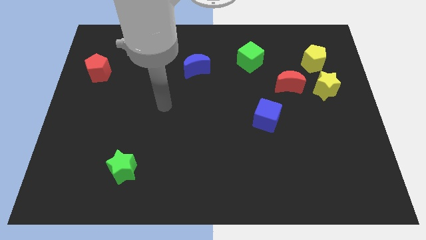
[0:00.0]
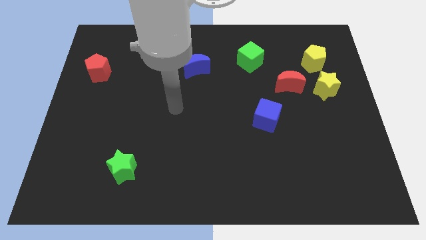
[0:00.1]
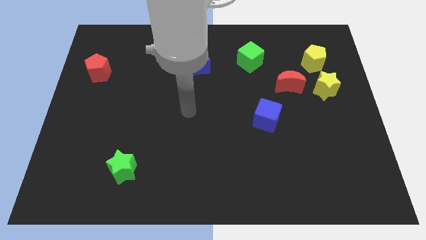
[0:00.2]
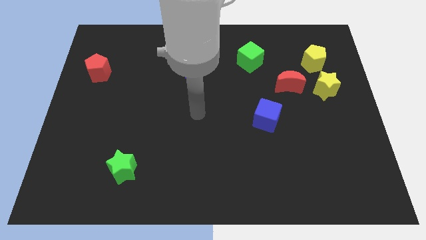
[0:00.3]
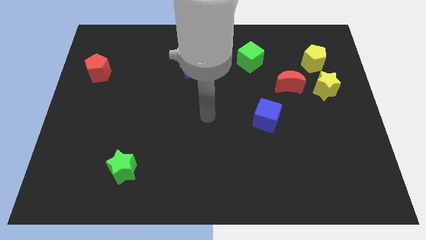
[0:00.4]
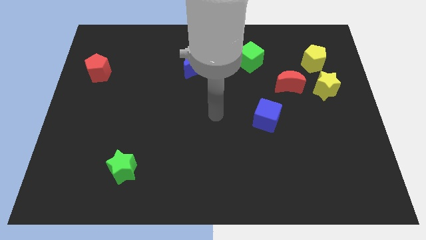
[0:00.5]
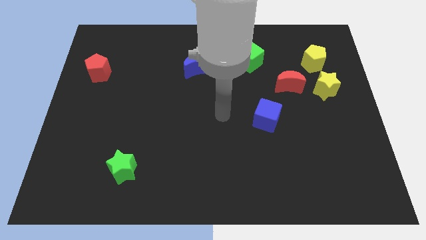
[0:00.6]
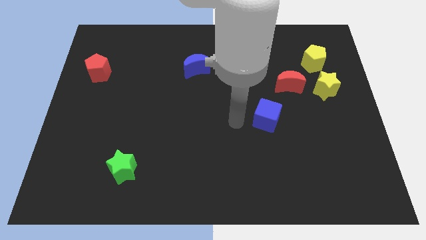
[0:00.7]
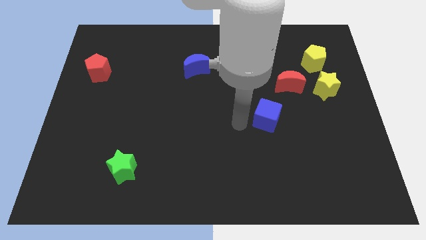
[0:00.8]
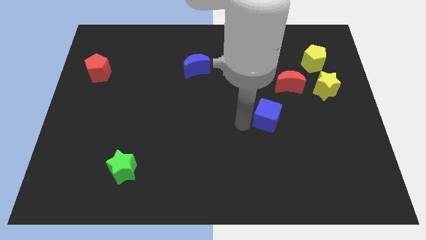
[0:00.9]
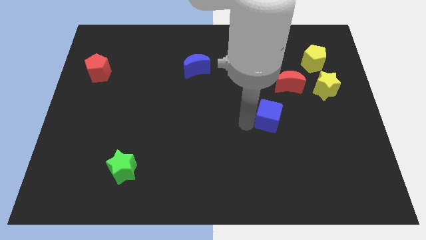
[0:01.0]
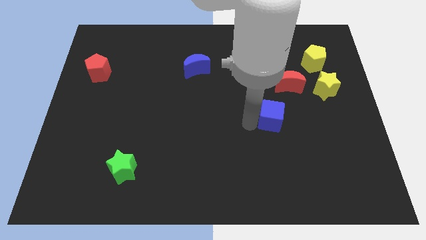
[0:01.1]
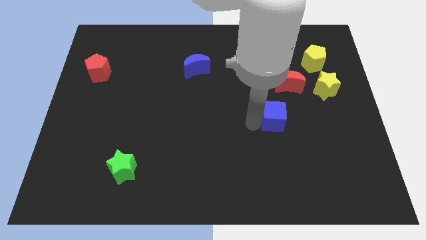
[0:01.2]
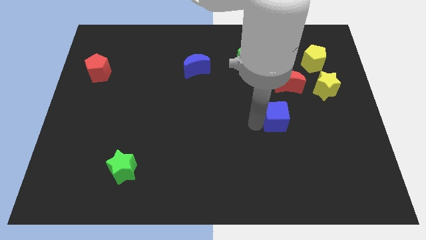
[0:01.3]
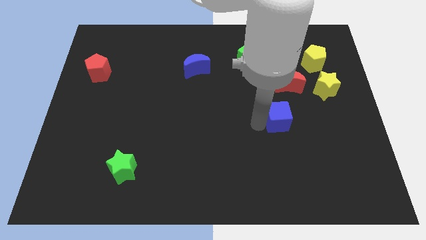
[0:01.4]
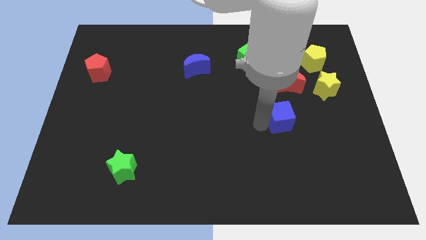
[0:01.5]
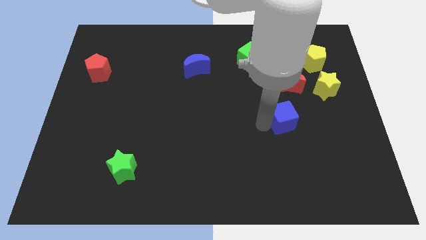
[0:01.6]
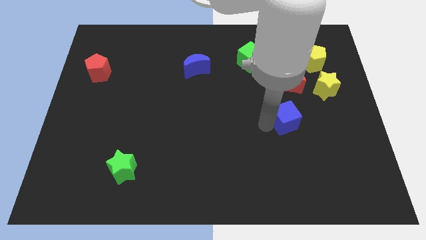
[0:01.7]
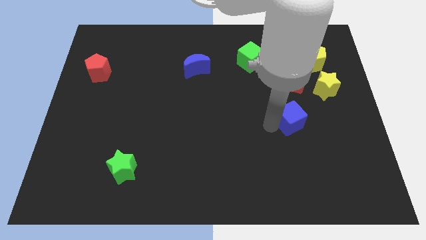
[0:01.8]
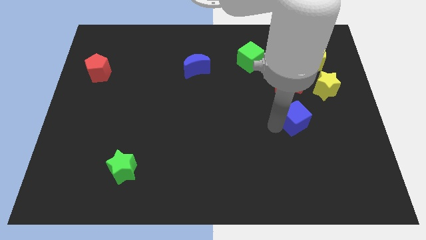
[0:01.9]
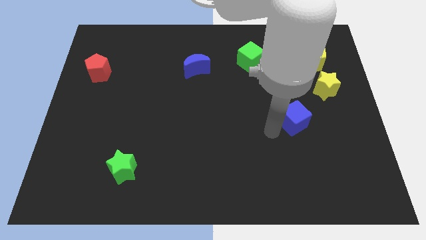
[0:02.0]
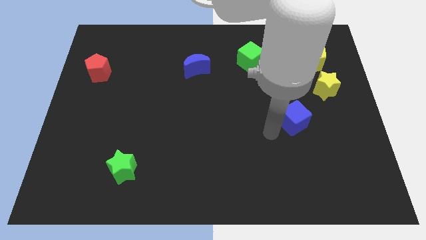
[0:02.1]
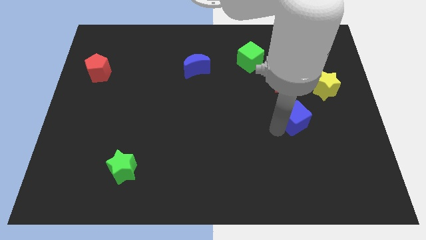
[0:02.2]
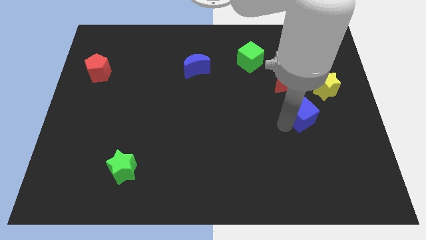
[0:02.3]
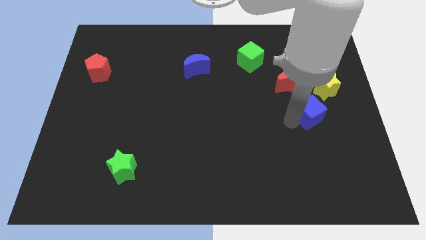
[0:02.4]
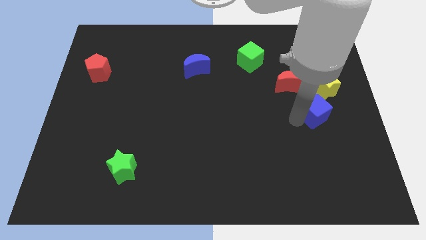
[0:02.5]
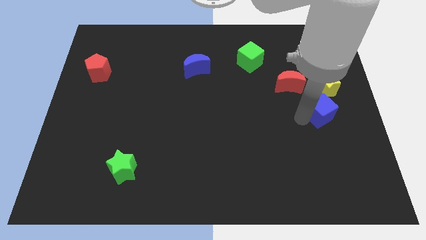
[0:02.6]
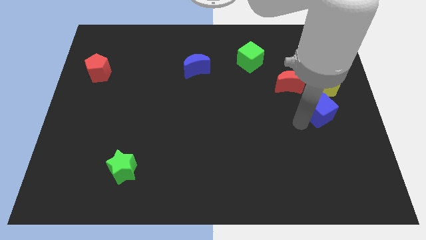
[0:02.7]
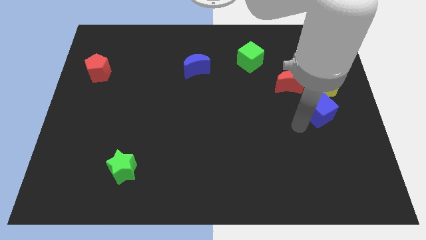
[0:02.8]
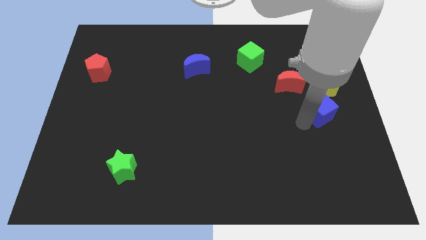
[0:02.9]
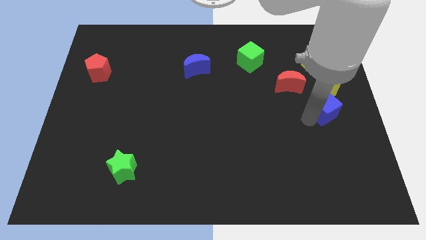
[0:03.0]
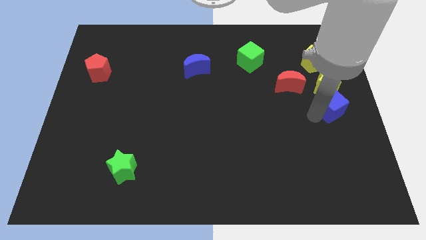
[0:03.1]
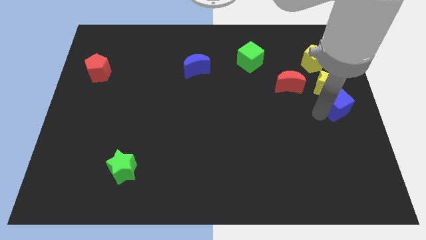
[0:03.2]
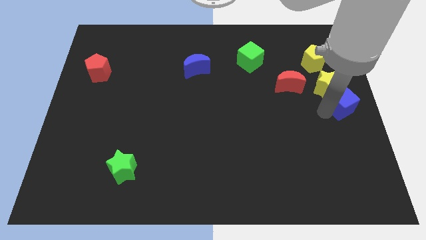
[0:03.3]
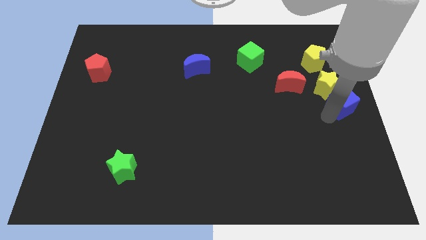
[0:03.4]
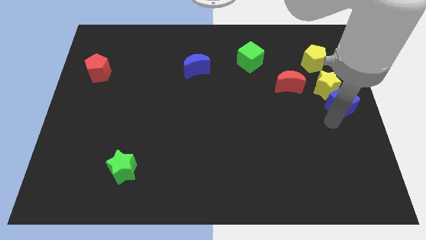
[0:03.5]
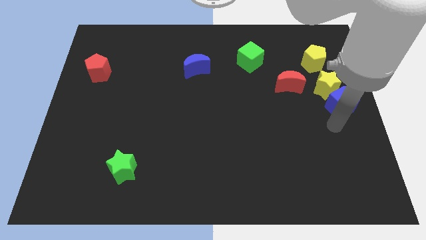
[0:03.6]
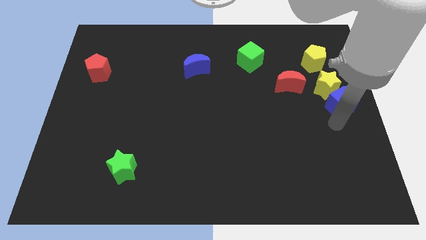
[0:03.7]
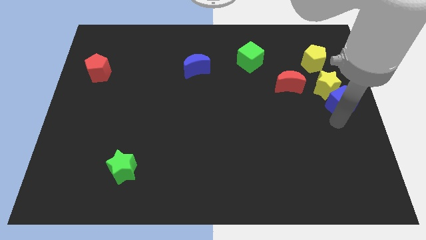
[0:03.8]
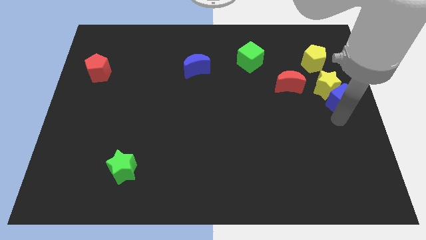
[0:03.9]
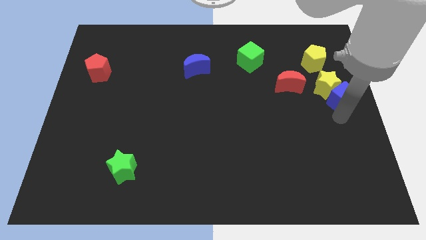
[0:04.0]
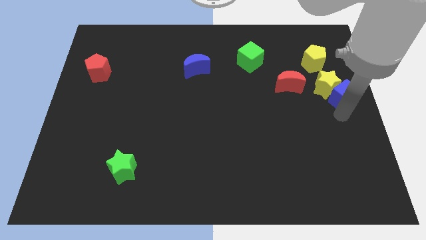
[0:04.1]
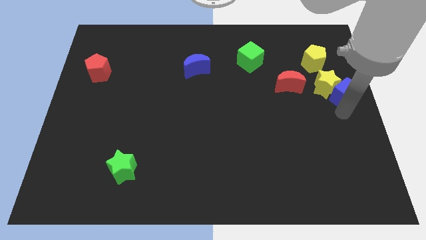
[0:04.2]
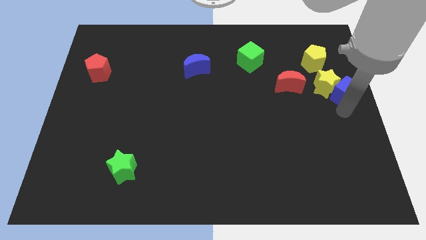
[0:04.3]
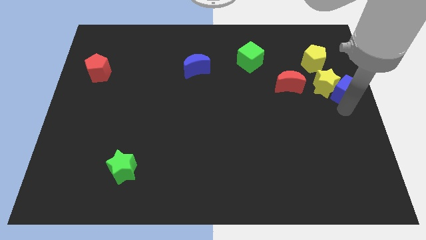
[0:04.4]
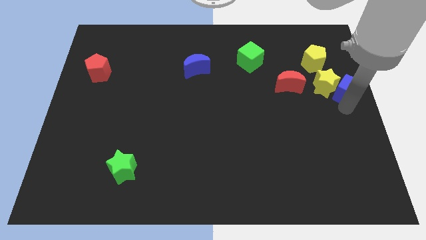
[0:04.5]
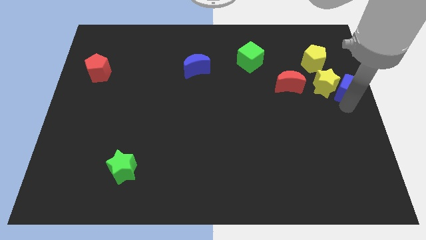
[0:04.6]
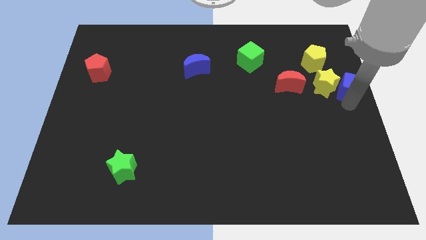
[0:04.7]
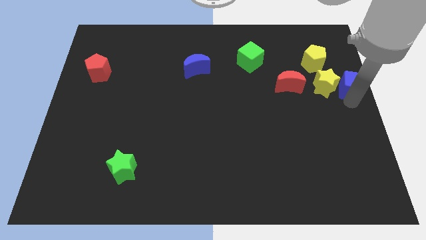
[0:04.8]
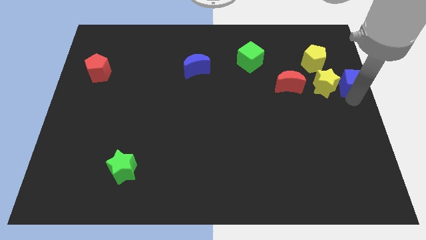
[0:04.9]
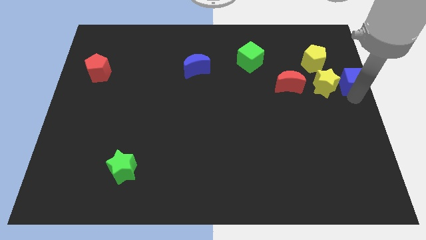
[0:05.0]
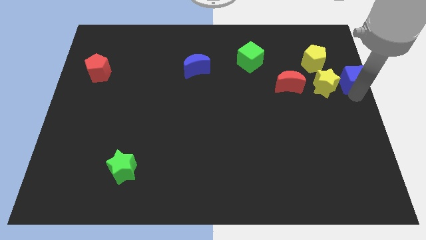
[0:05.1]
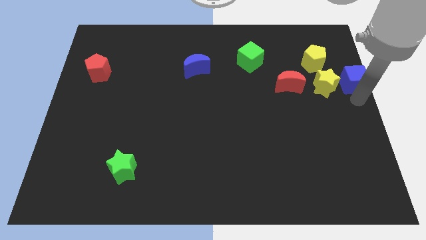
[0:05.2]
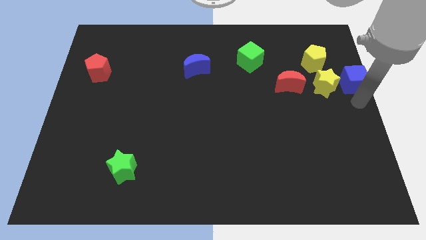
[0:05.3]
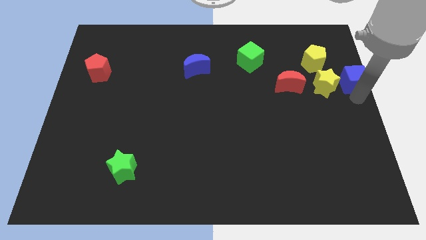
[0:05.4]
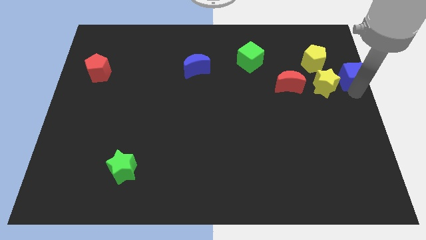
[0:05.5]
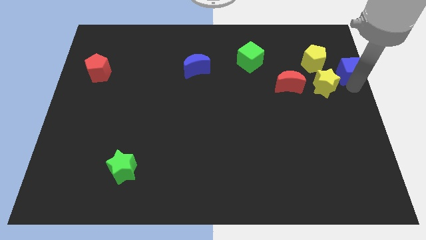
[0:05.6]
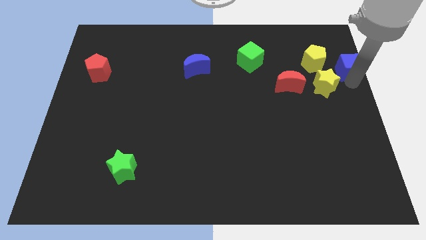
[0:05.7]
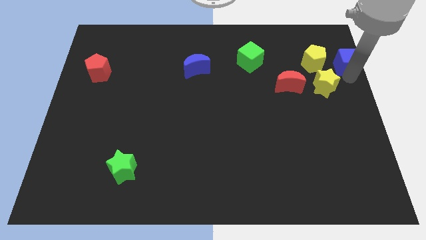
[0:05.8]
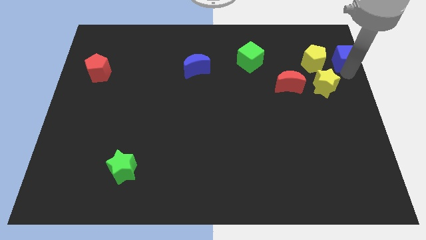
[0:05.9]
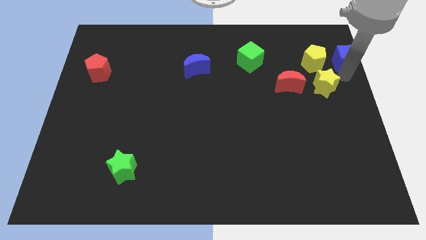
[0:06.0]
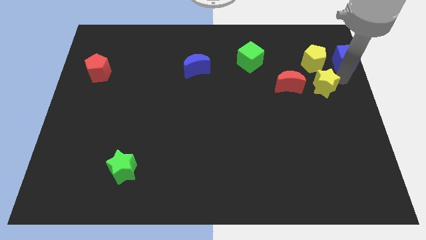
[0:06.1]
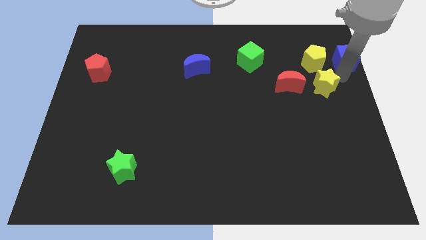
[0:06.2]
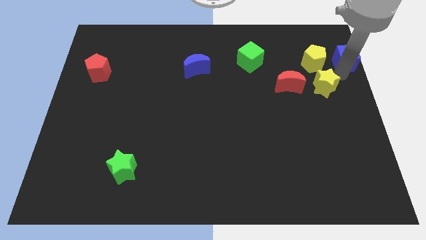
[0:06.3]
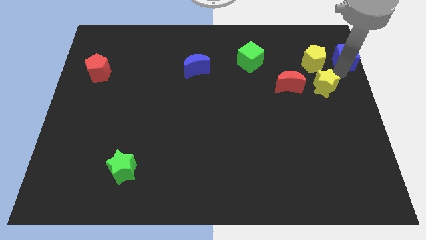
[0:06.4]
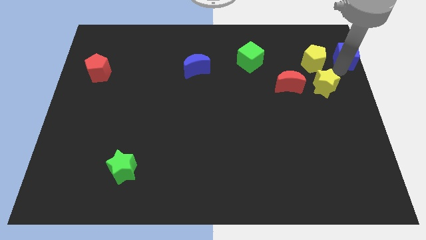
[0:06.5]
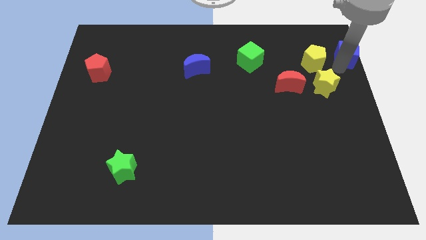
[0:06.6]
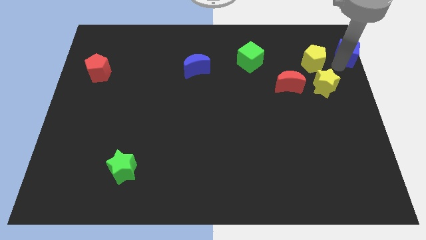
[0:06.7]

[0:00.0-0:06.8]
move the blue cube to the top right corner
